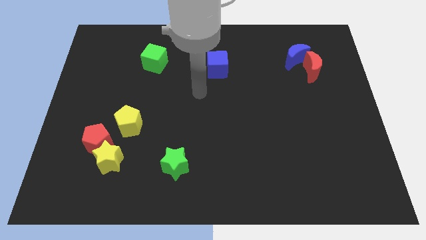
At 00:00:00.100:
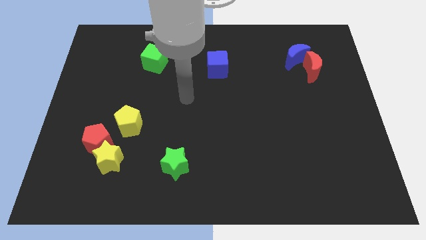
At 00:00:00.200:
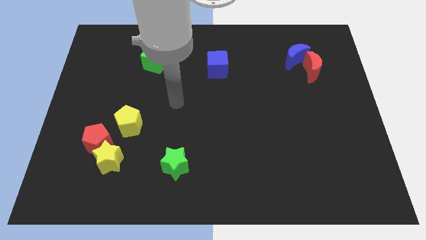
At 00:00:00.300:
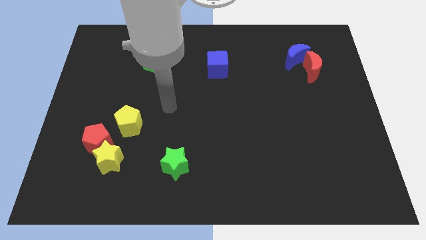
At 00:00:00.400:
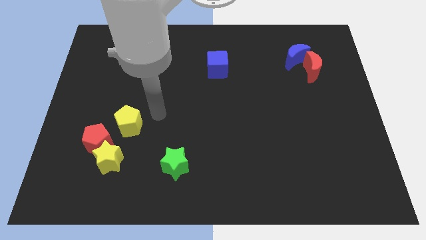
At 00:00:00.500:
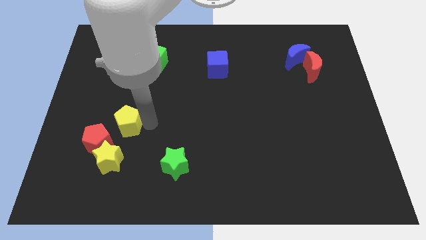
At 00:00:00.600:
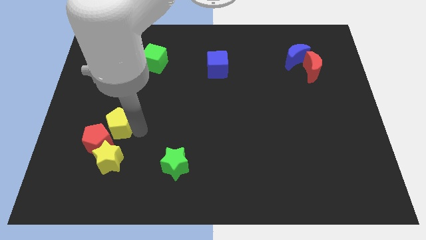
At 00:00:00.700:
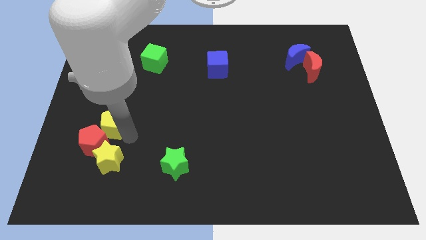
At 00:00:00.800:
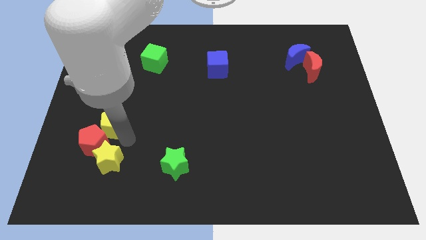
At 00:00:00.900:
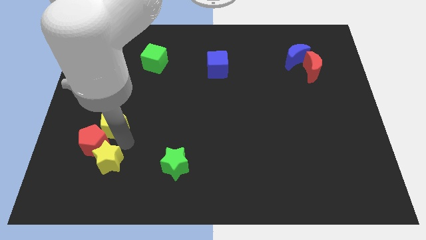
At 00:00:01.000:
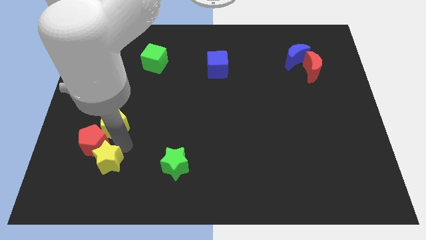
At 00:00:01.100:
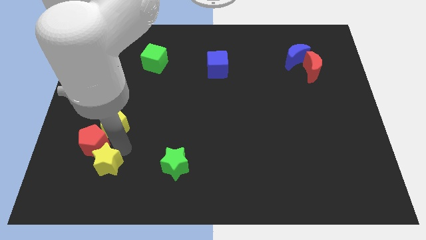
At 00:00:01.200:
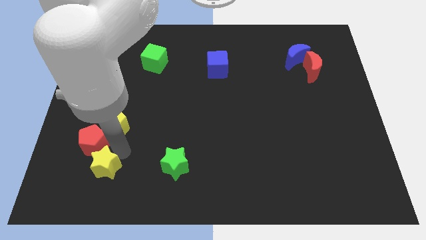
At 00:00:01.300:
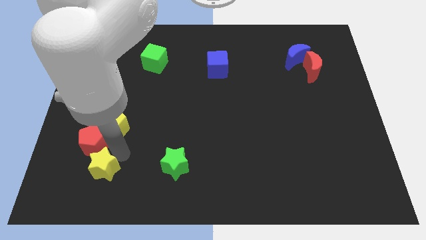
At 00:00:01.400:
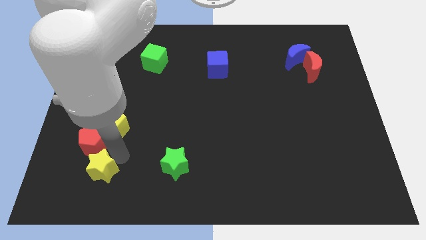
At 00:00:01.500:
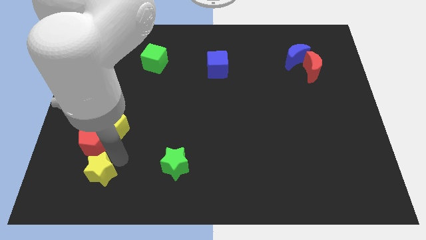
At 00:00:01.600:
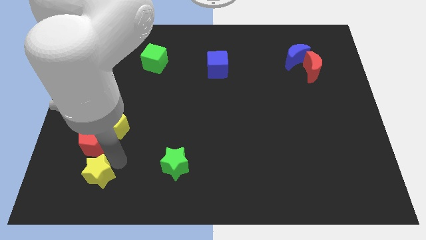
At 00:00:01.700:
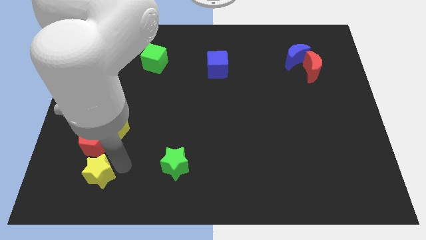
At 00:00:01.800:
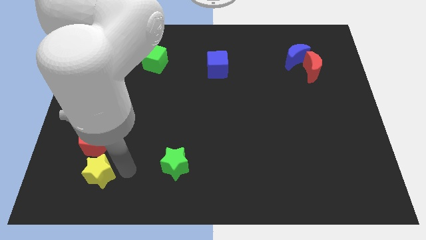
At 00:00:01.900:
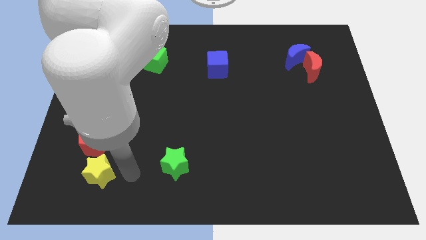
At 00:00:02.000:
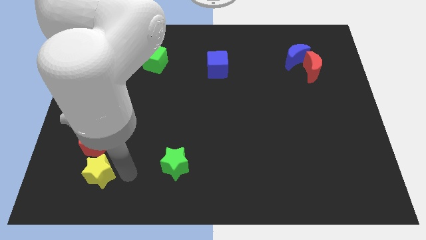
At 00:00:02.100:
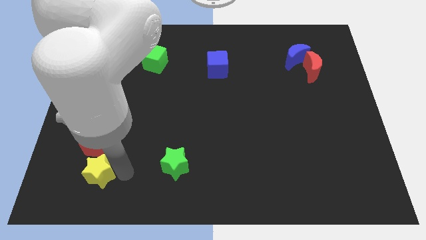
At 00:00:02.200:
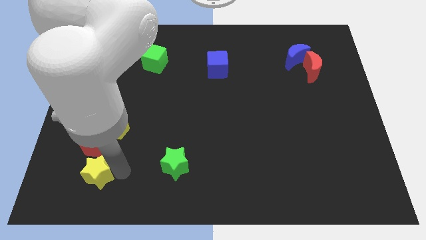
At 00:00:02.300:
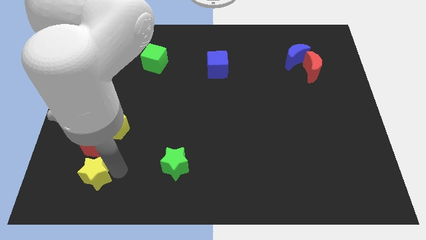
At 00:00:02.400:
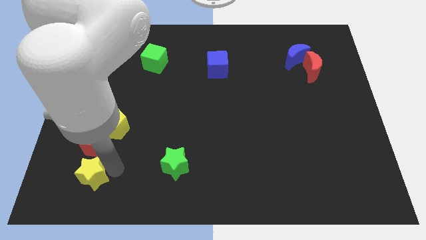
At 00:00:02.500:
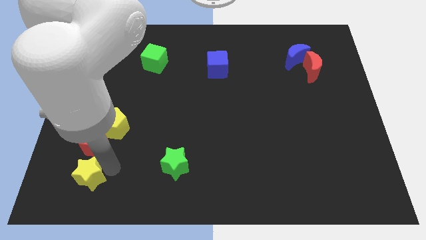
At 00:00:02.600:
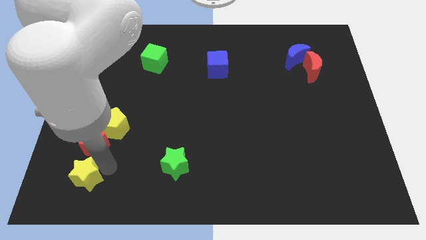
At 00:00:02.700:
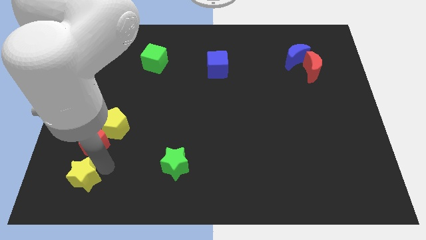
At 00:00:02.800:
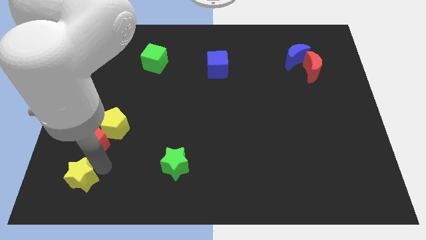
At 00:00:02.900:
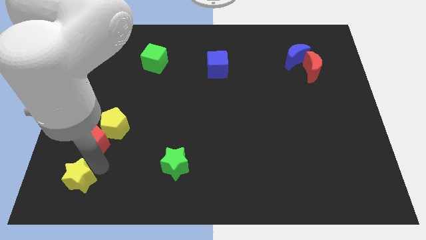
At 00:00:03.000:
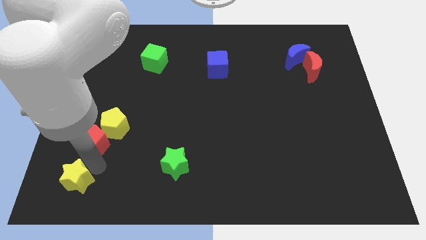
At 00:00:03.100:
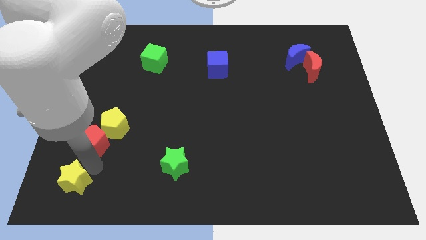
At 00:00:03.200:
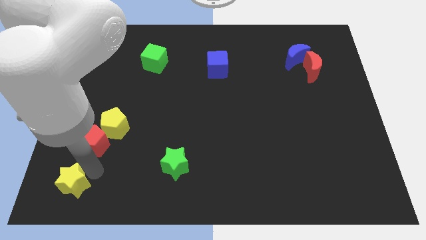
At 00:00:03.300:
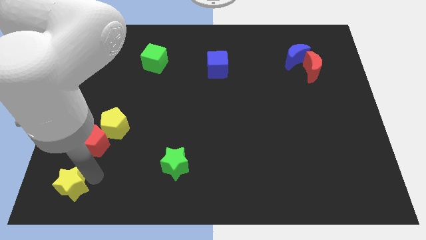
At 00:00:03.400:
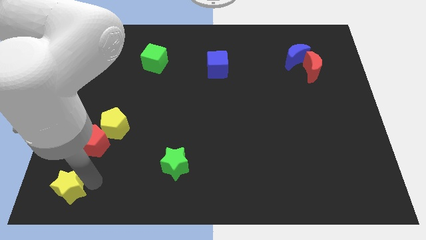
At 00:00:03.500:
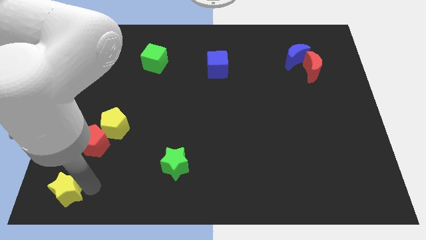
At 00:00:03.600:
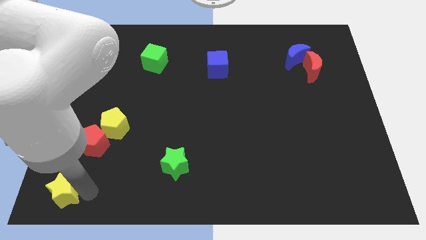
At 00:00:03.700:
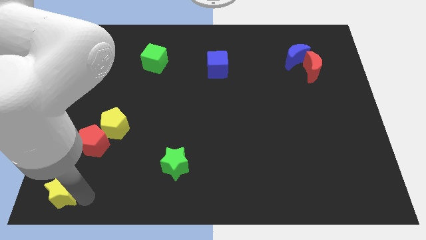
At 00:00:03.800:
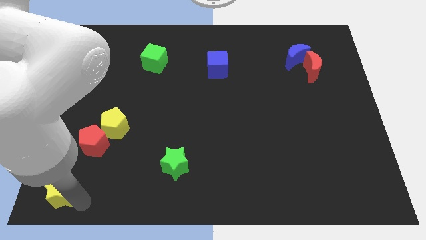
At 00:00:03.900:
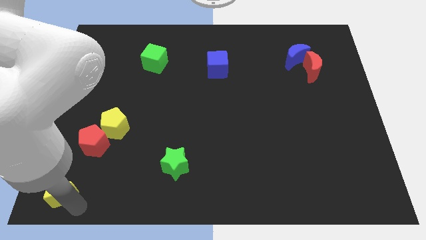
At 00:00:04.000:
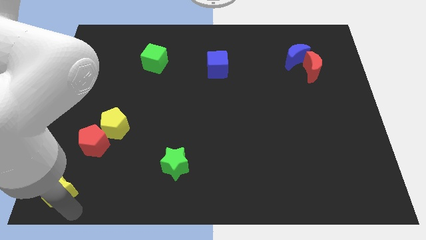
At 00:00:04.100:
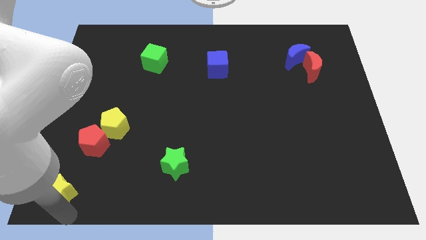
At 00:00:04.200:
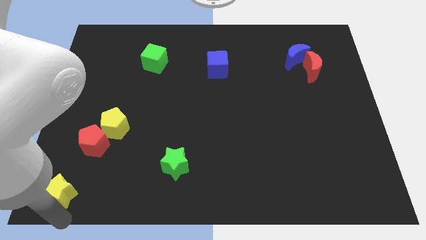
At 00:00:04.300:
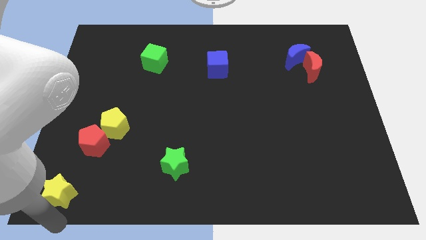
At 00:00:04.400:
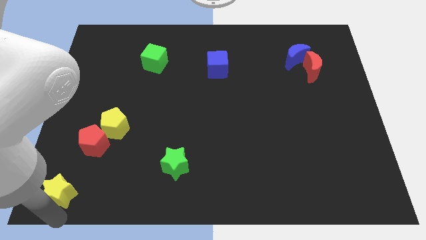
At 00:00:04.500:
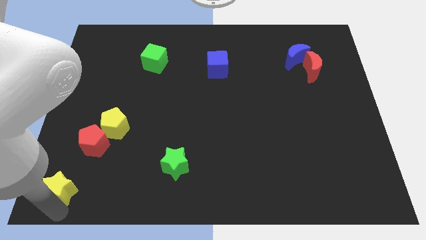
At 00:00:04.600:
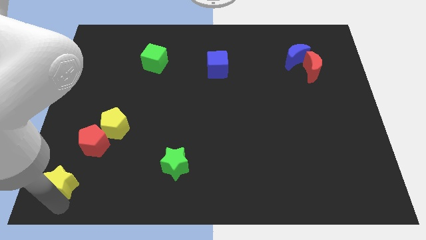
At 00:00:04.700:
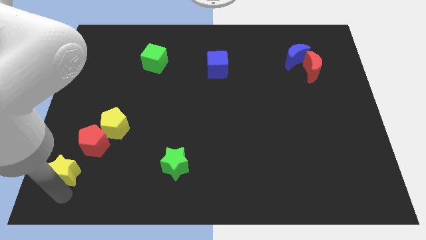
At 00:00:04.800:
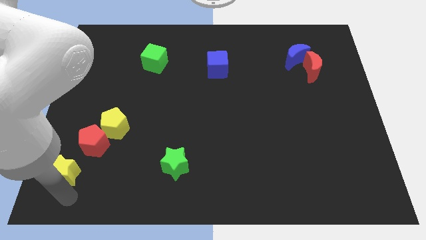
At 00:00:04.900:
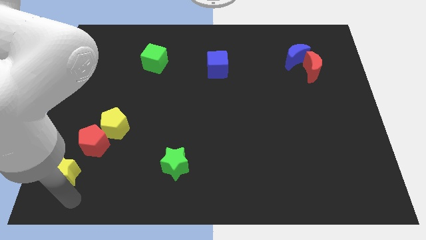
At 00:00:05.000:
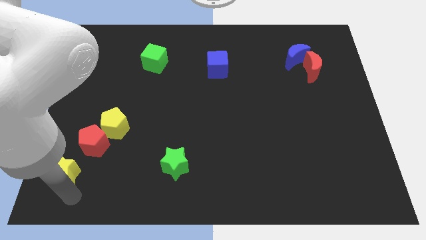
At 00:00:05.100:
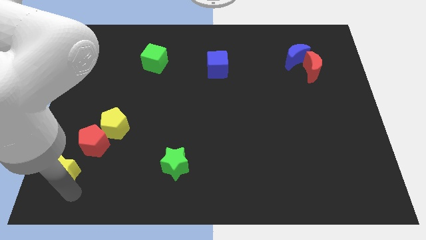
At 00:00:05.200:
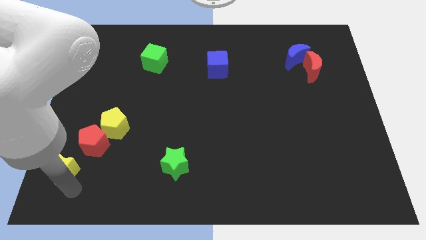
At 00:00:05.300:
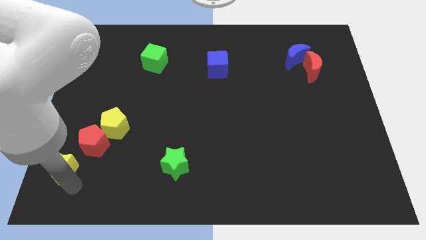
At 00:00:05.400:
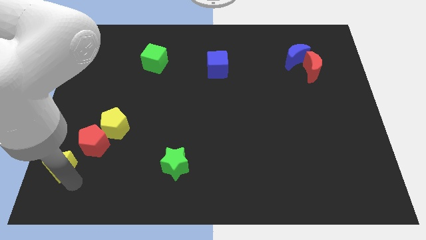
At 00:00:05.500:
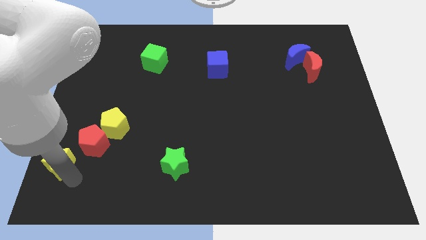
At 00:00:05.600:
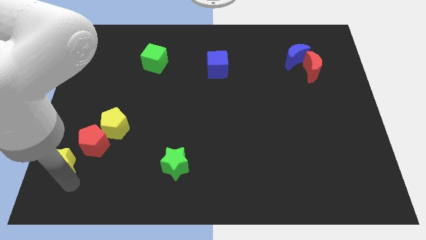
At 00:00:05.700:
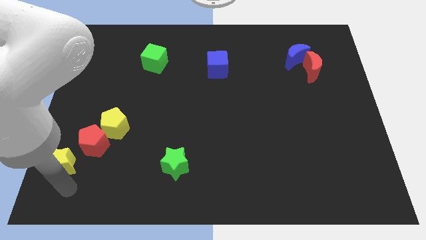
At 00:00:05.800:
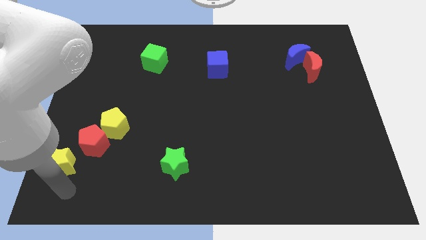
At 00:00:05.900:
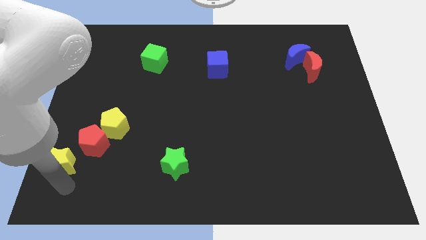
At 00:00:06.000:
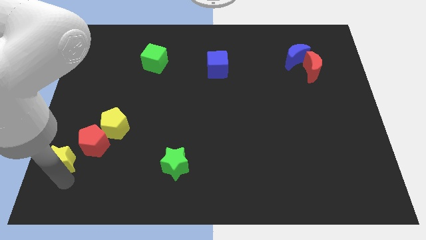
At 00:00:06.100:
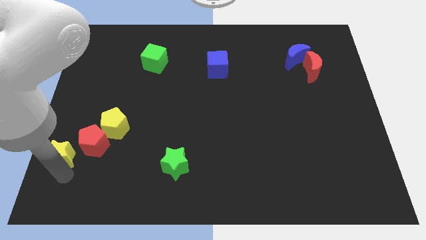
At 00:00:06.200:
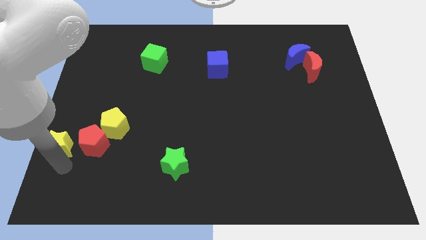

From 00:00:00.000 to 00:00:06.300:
move the yellow star to the center left
